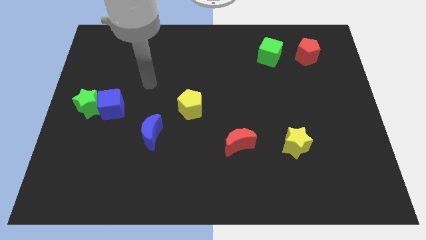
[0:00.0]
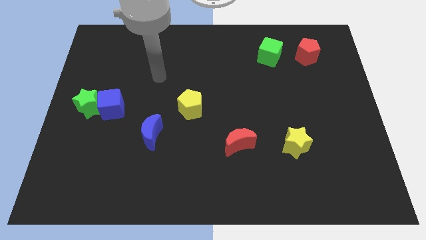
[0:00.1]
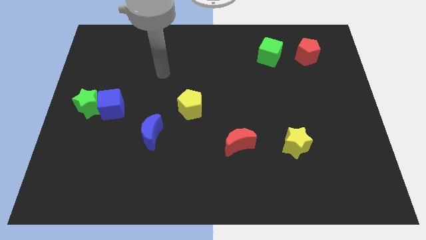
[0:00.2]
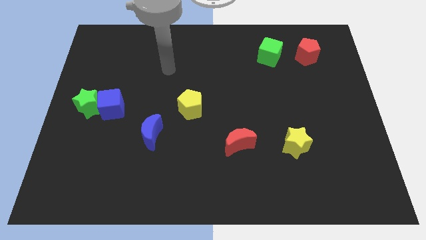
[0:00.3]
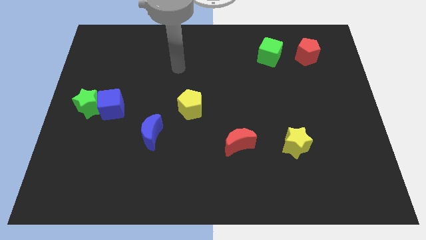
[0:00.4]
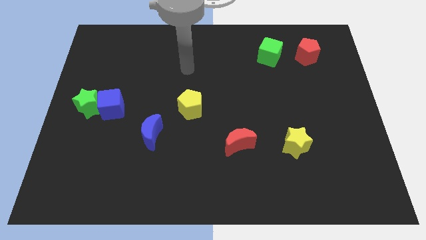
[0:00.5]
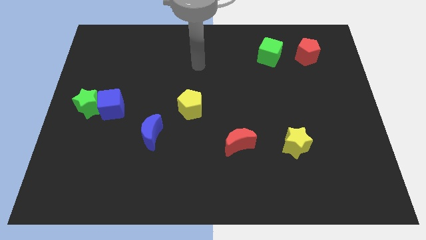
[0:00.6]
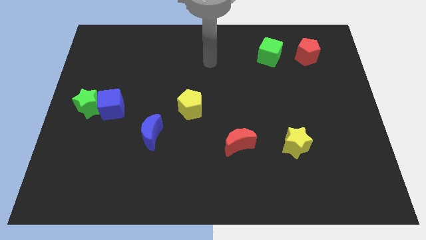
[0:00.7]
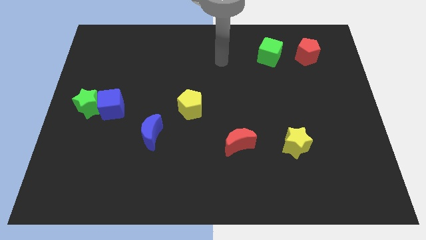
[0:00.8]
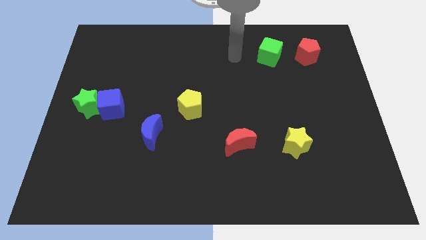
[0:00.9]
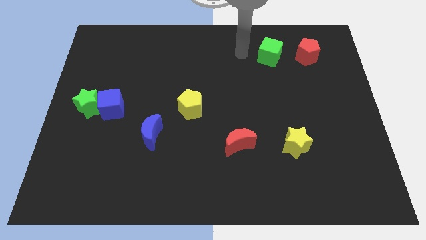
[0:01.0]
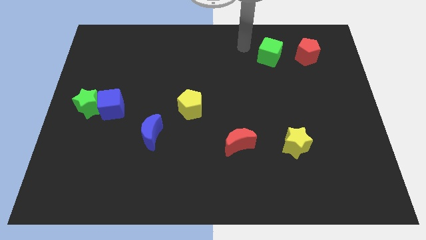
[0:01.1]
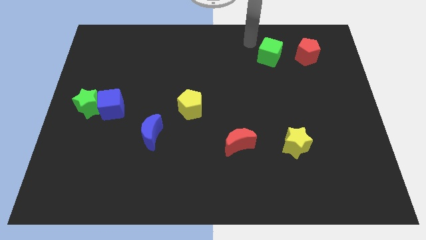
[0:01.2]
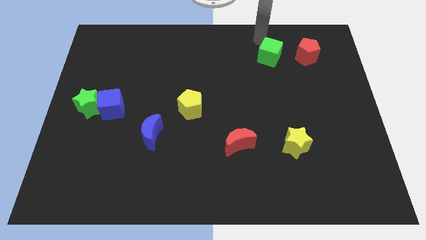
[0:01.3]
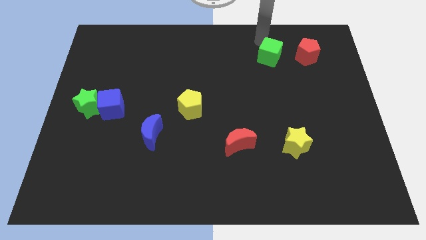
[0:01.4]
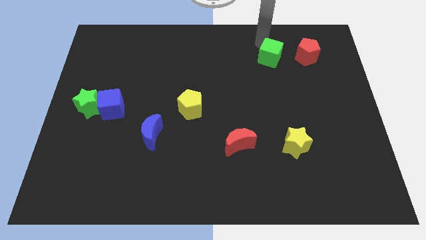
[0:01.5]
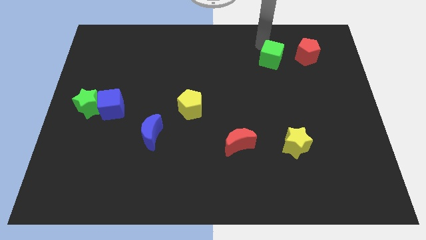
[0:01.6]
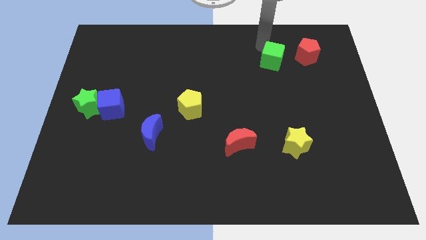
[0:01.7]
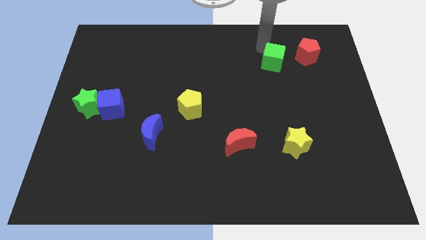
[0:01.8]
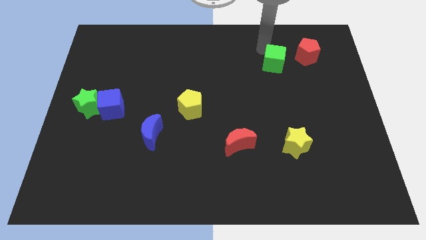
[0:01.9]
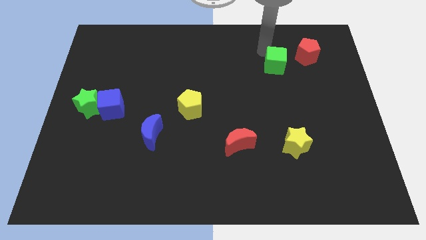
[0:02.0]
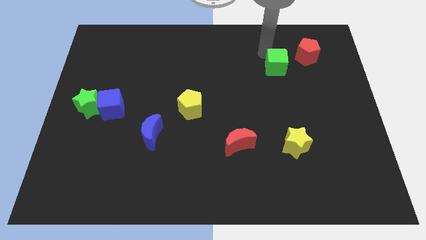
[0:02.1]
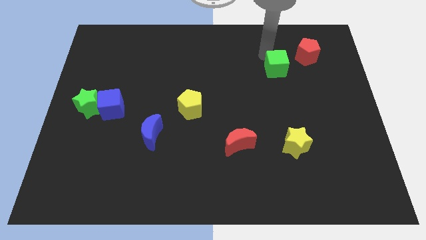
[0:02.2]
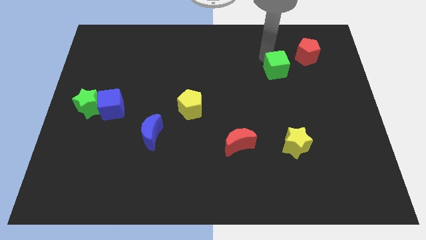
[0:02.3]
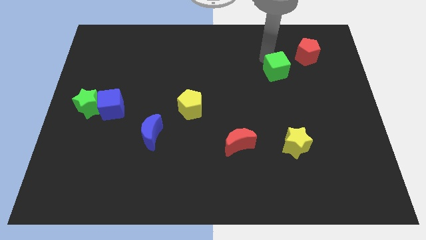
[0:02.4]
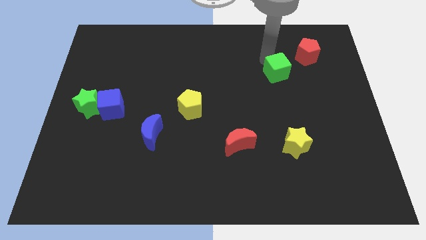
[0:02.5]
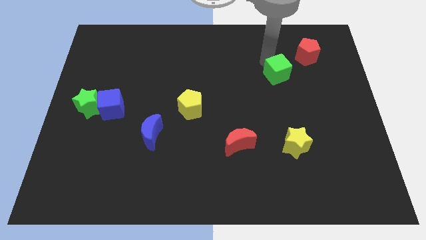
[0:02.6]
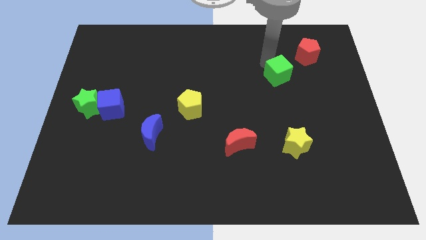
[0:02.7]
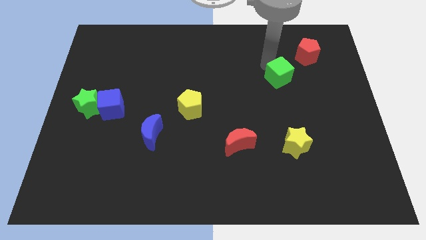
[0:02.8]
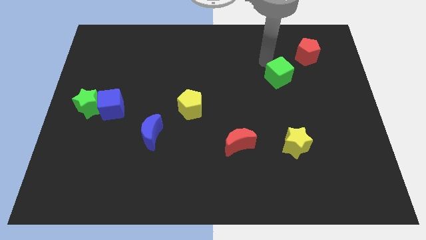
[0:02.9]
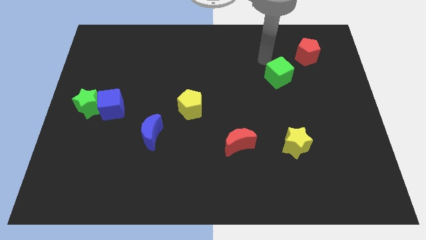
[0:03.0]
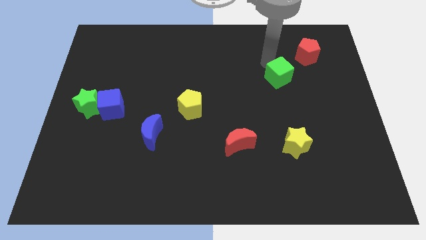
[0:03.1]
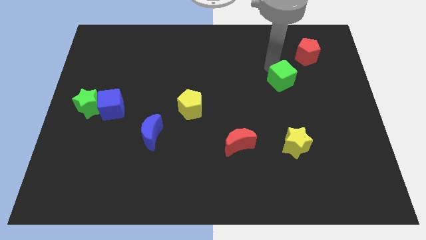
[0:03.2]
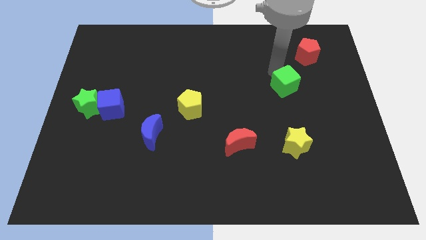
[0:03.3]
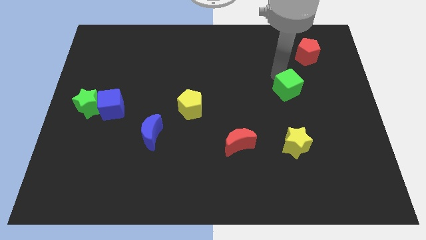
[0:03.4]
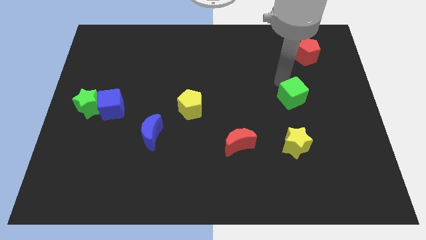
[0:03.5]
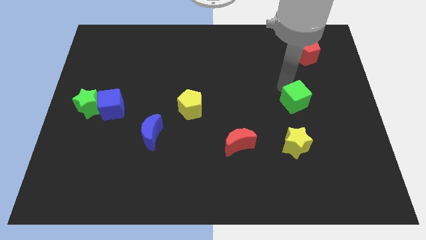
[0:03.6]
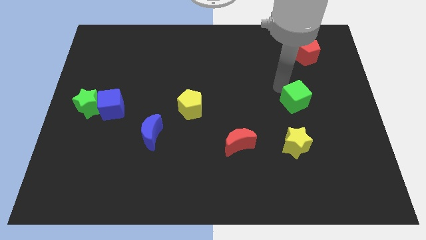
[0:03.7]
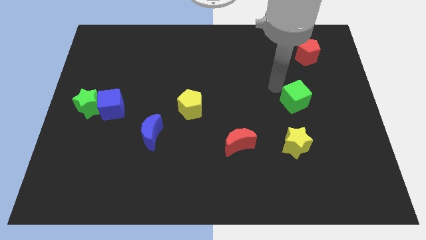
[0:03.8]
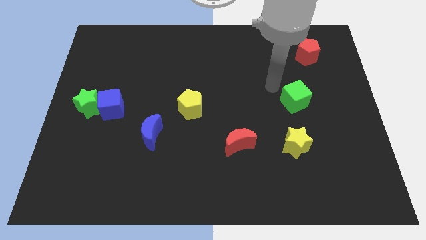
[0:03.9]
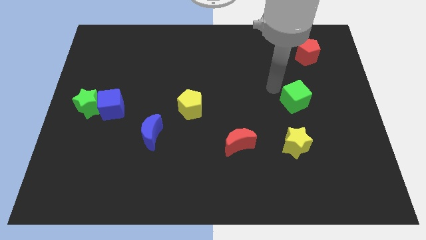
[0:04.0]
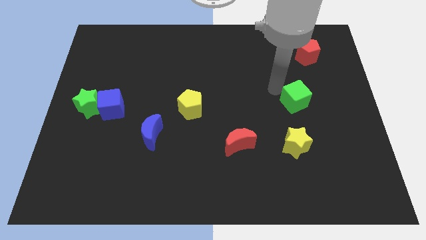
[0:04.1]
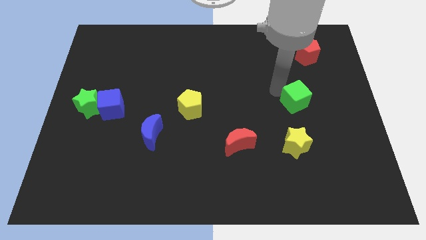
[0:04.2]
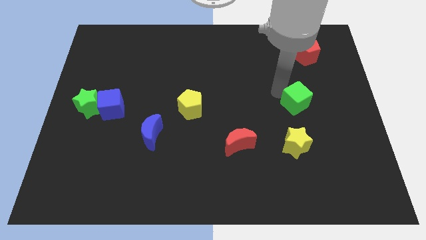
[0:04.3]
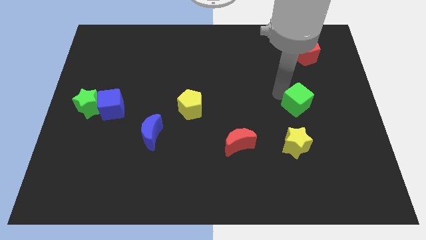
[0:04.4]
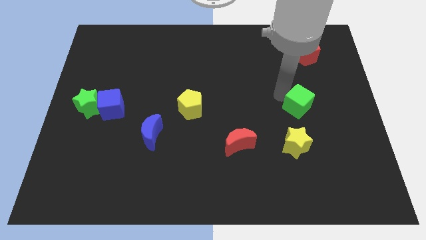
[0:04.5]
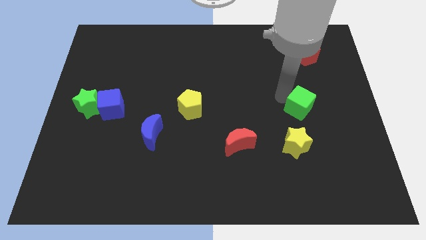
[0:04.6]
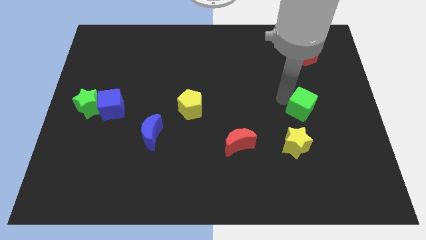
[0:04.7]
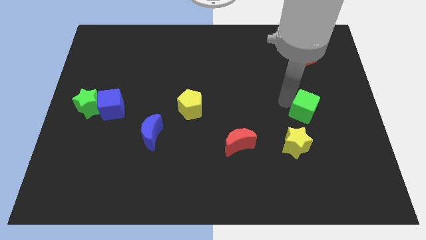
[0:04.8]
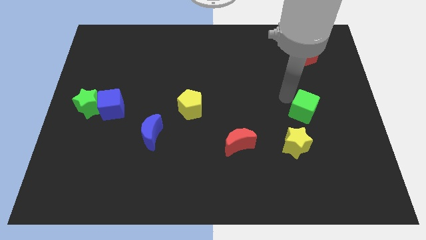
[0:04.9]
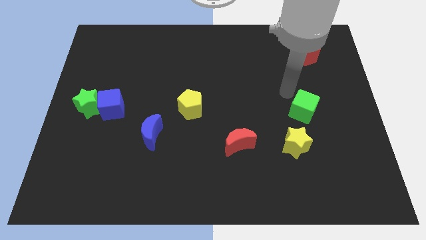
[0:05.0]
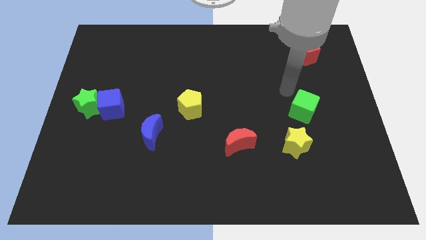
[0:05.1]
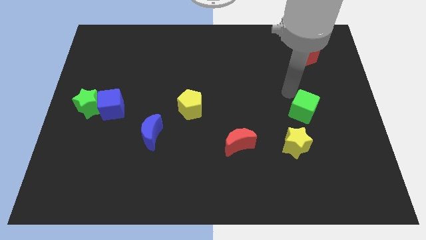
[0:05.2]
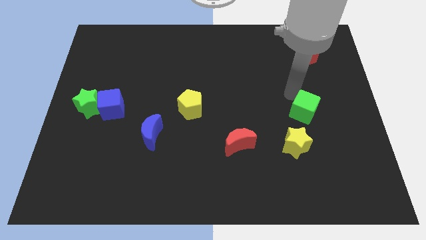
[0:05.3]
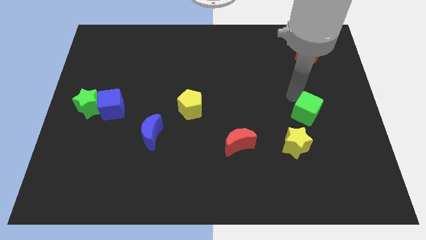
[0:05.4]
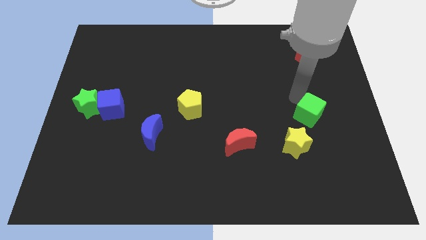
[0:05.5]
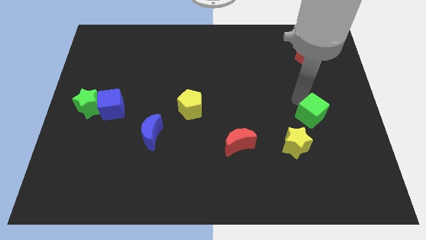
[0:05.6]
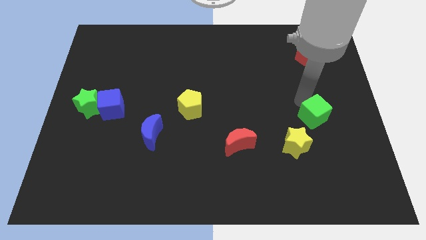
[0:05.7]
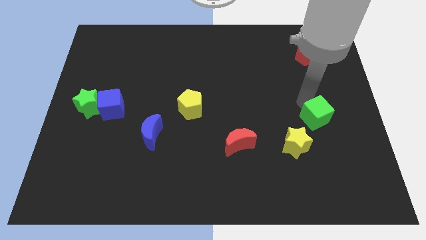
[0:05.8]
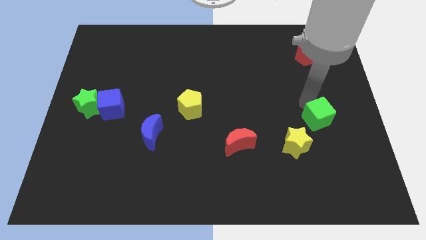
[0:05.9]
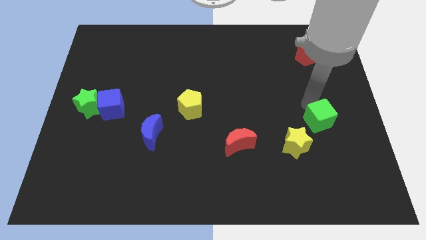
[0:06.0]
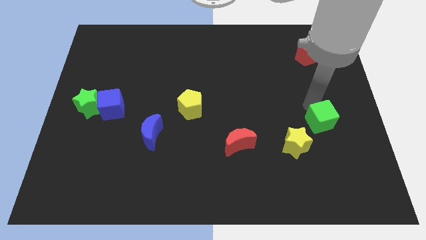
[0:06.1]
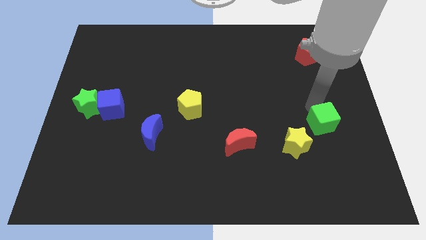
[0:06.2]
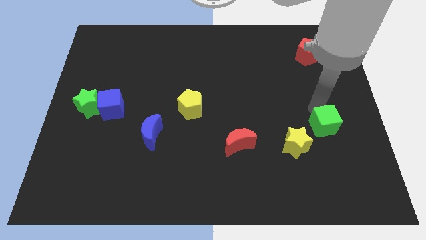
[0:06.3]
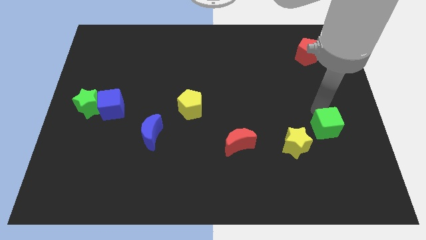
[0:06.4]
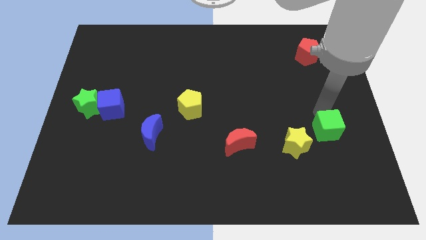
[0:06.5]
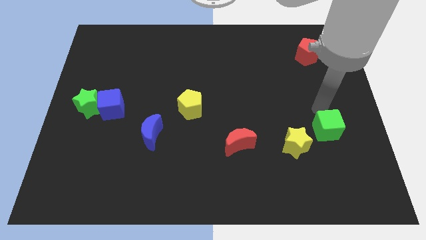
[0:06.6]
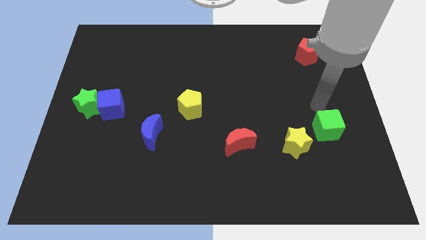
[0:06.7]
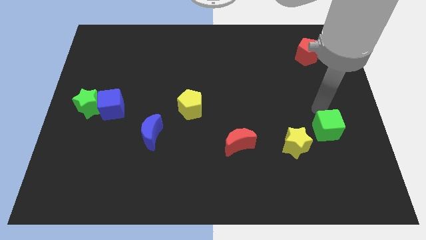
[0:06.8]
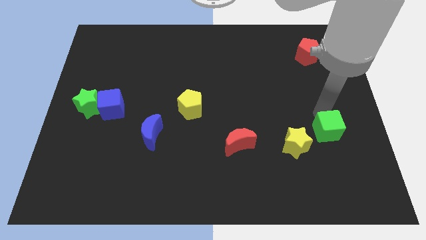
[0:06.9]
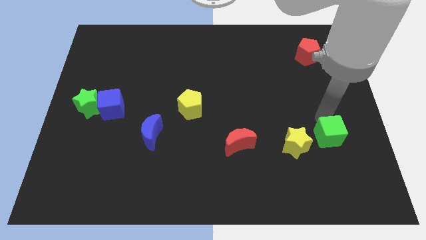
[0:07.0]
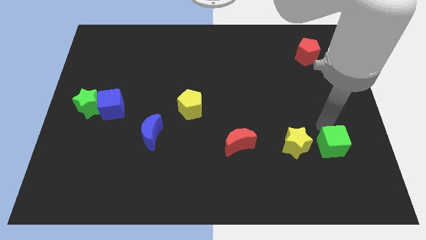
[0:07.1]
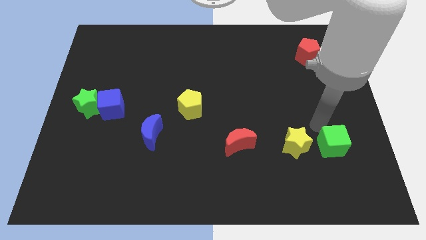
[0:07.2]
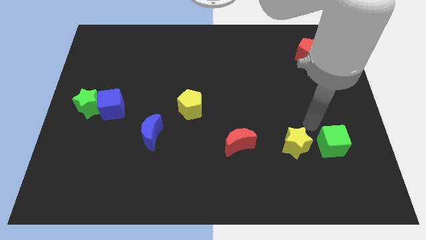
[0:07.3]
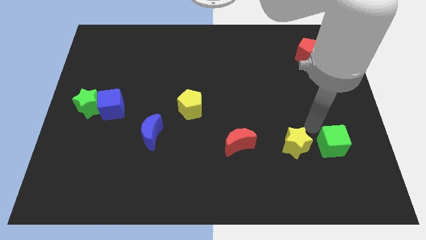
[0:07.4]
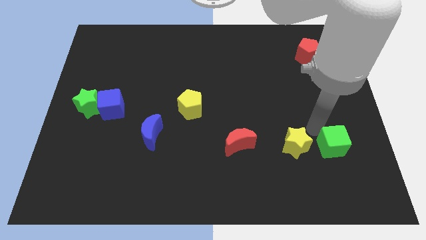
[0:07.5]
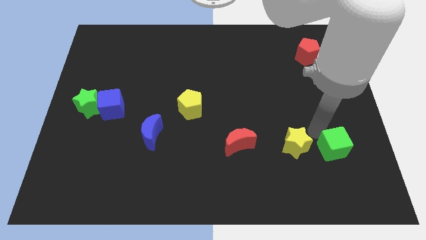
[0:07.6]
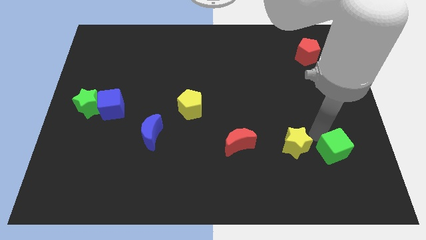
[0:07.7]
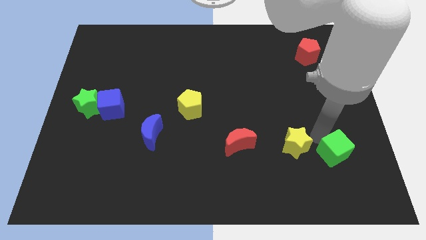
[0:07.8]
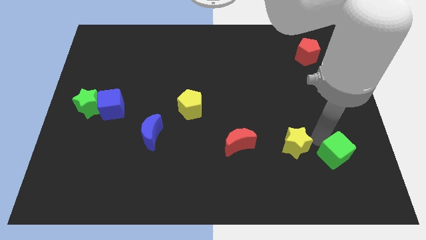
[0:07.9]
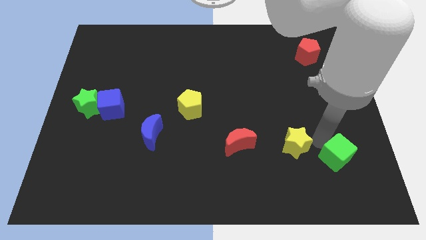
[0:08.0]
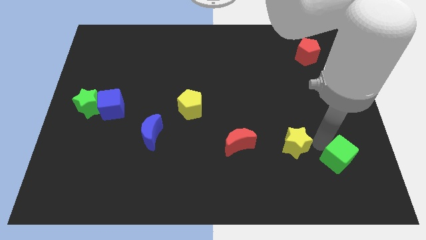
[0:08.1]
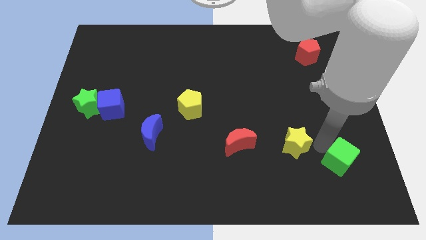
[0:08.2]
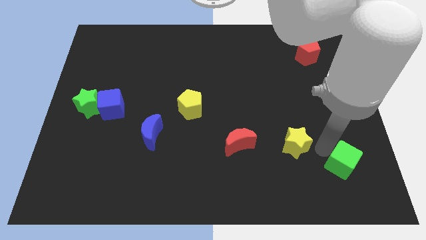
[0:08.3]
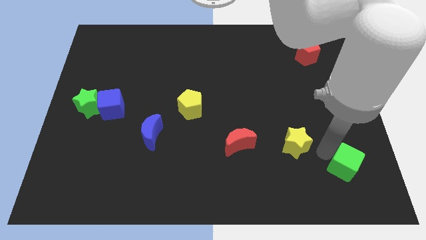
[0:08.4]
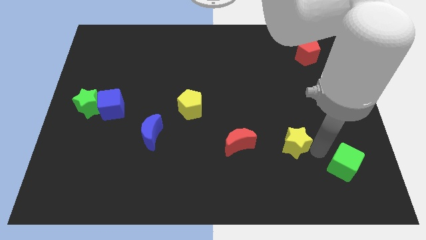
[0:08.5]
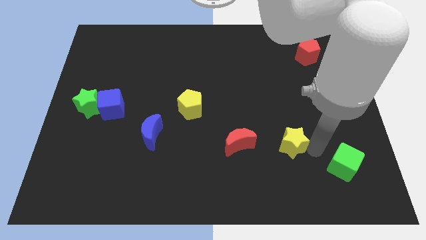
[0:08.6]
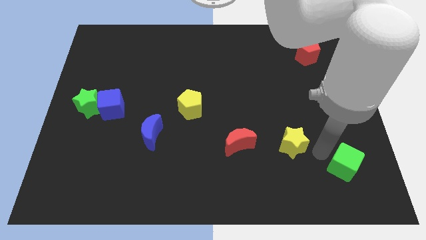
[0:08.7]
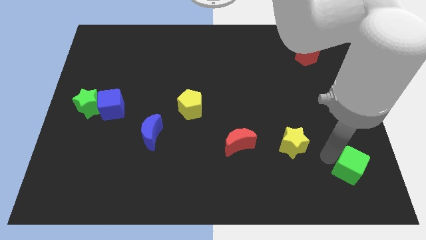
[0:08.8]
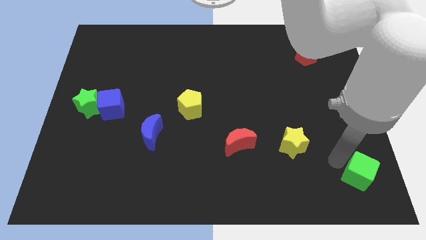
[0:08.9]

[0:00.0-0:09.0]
move the green cube to the lower right corner
